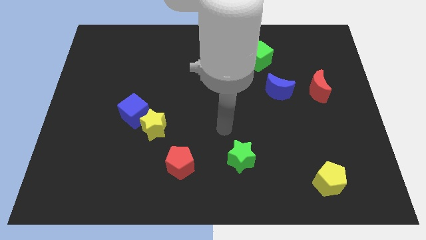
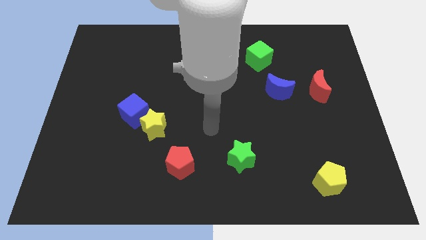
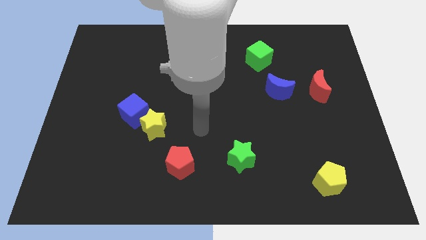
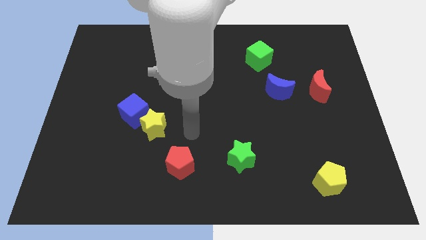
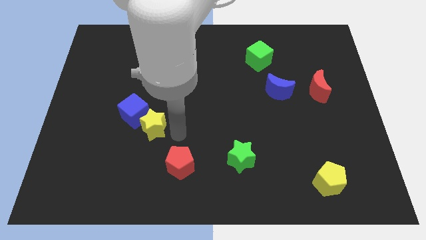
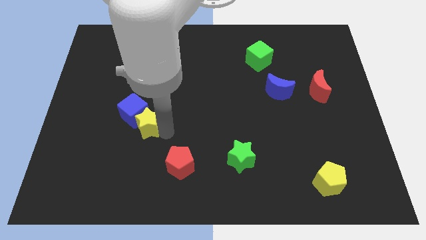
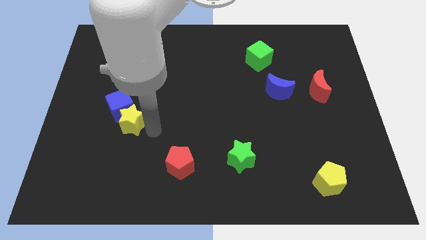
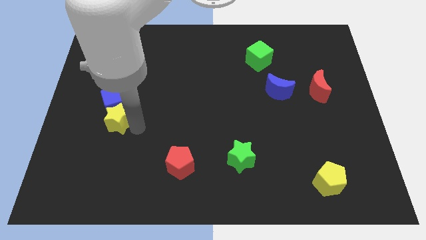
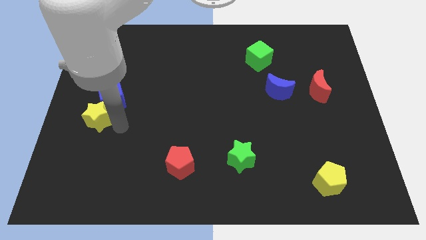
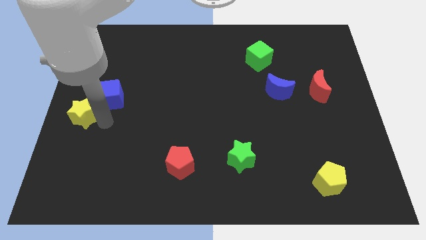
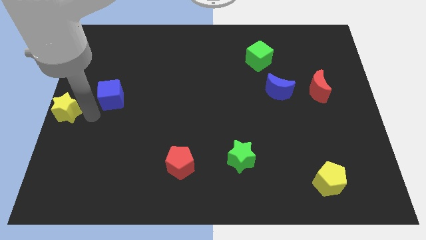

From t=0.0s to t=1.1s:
separate the blue cube from the yellow star

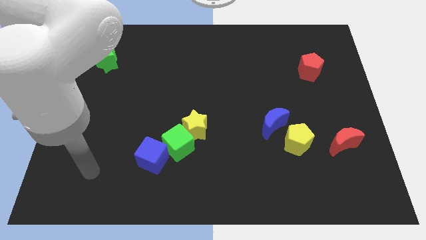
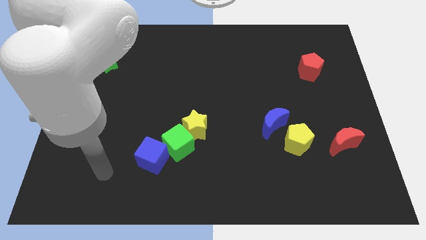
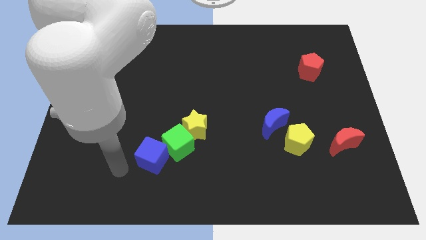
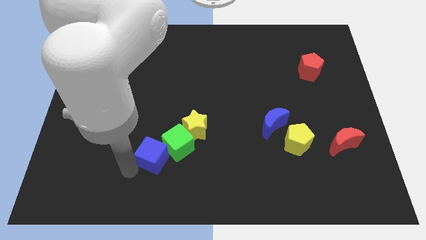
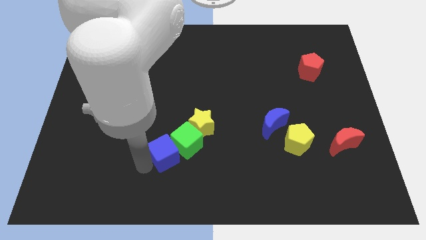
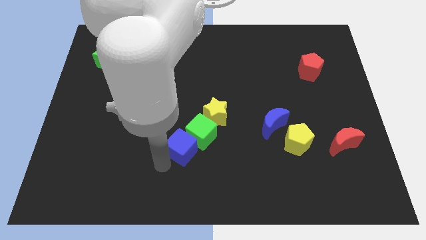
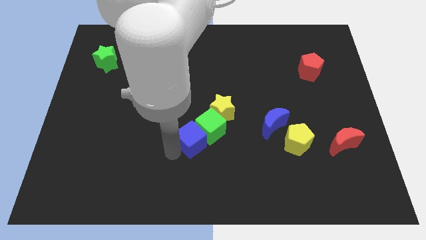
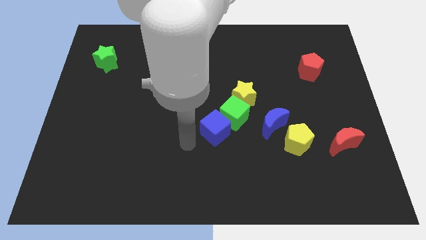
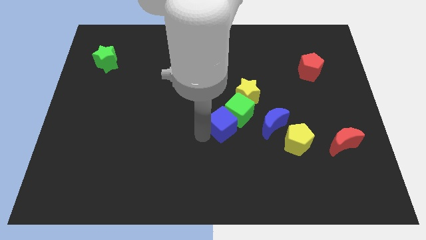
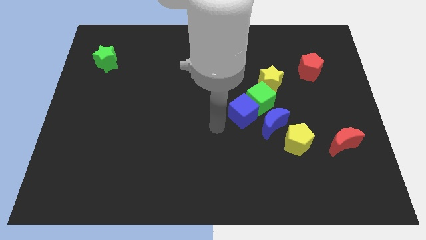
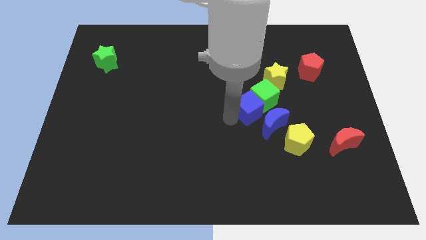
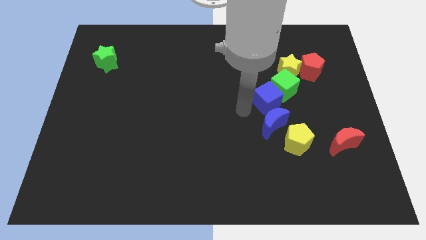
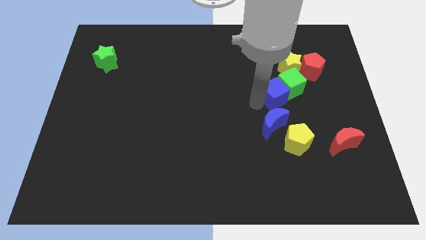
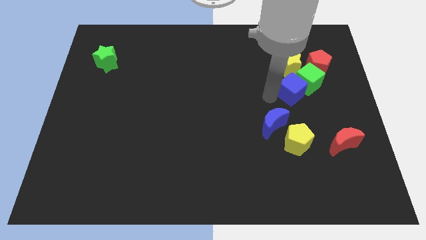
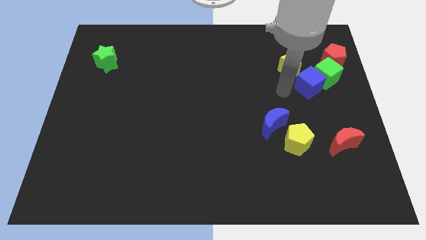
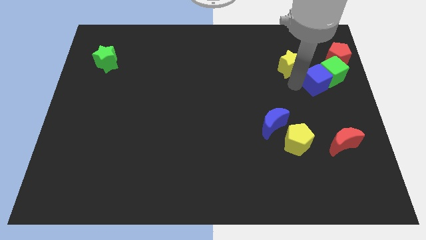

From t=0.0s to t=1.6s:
separate the yellow star from the green cube

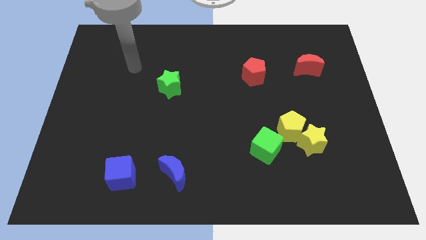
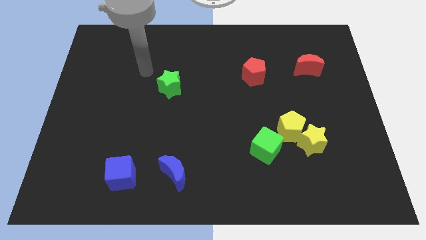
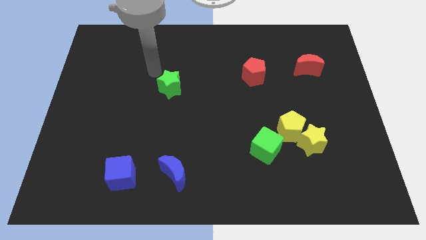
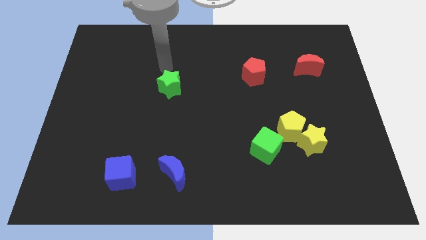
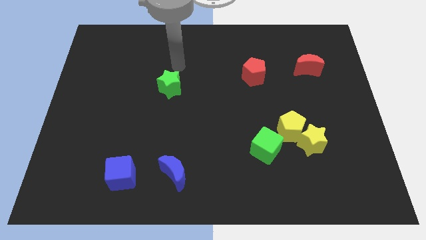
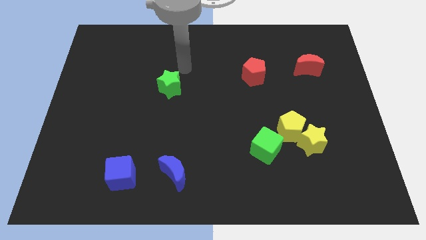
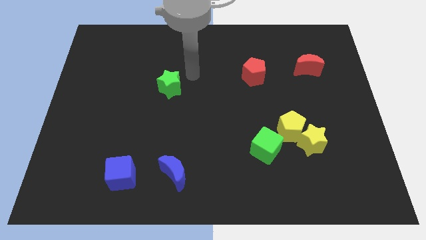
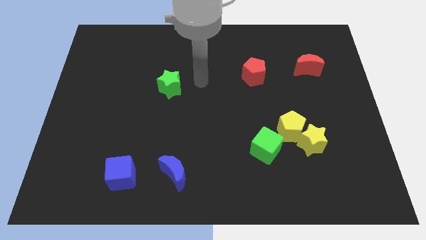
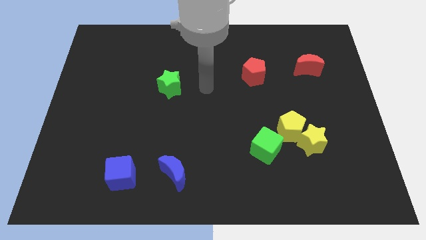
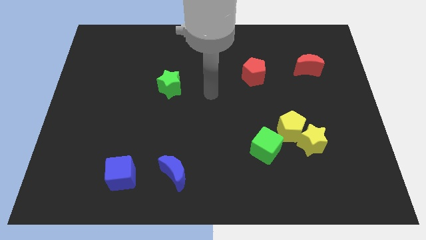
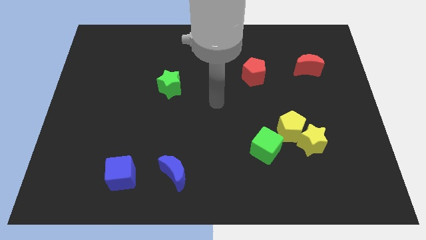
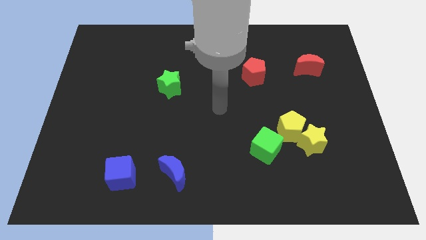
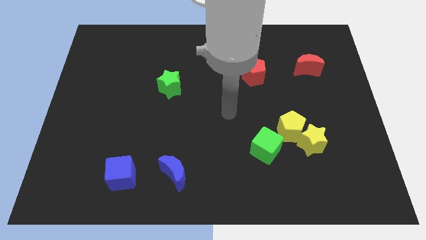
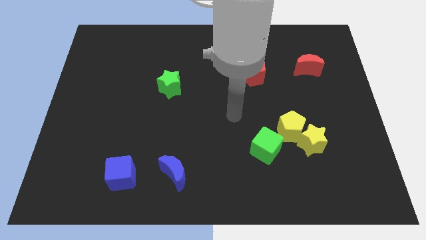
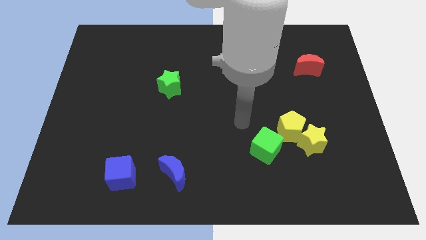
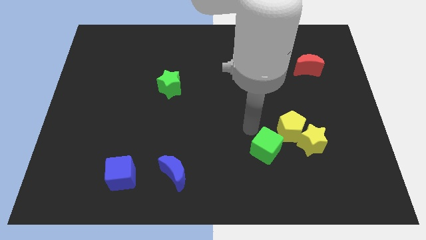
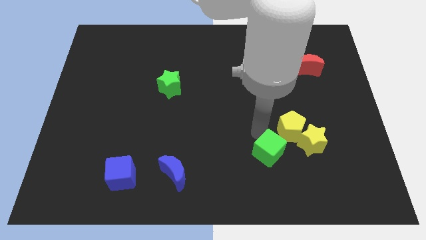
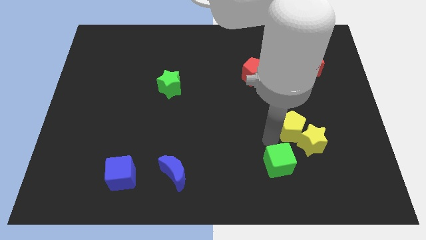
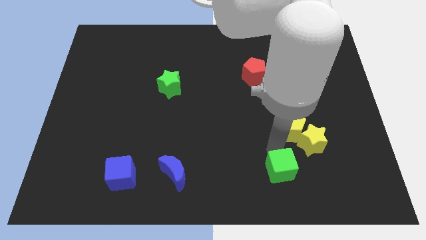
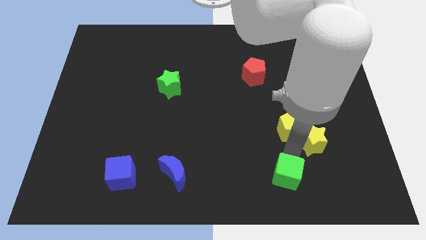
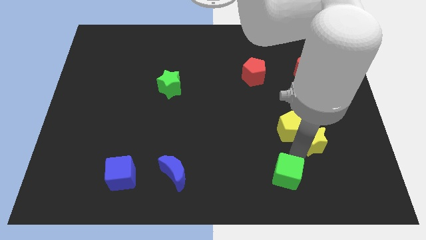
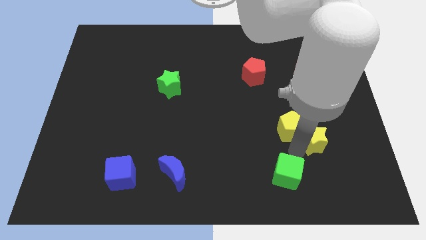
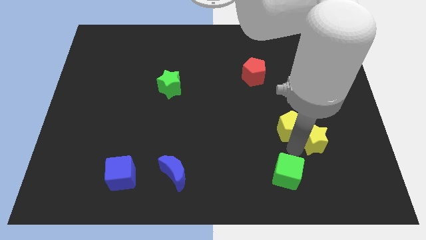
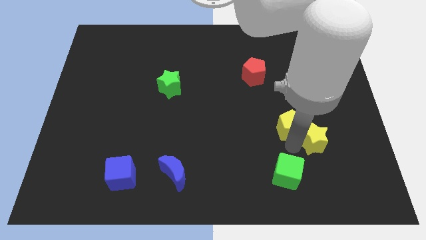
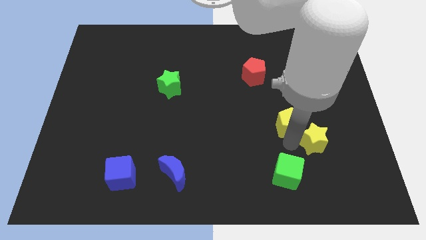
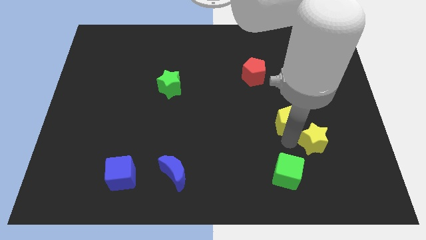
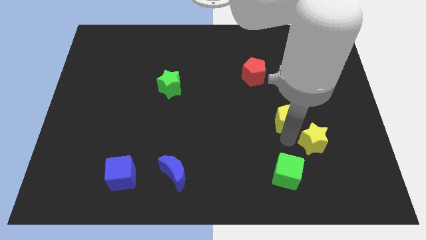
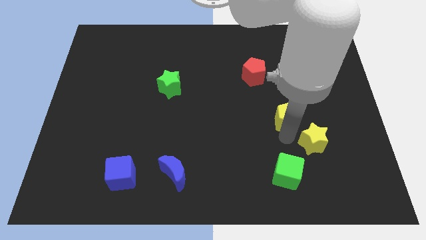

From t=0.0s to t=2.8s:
move the yellow pentagon away from the yellow star and green cube

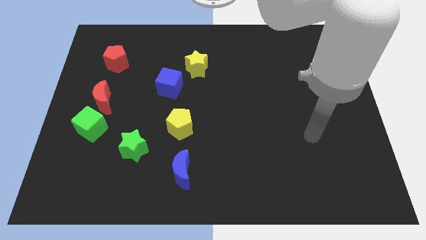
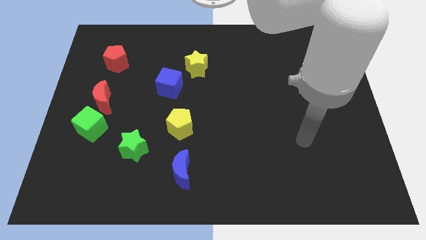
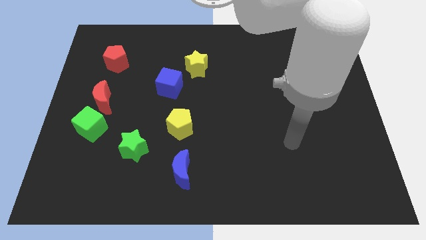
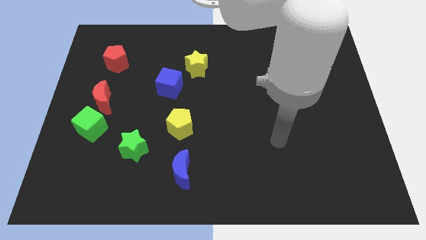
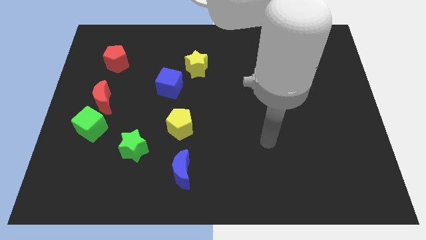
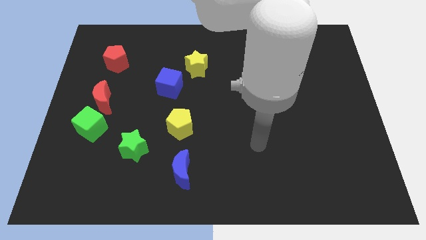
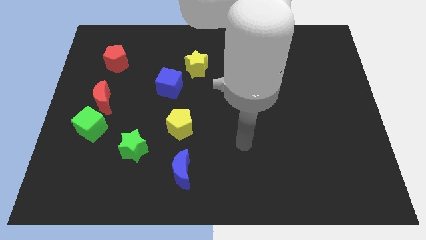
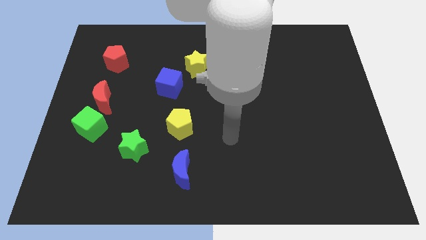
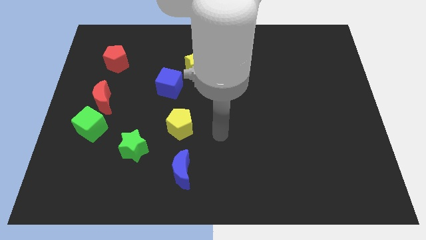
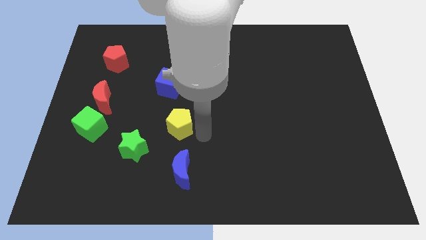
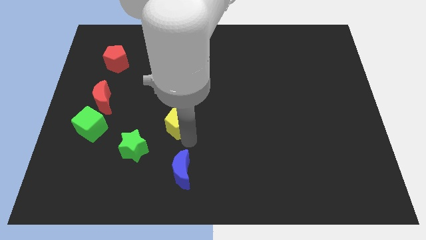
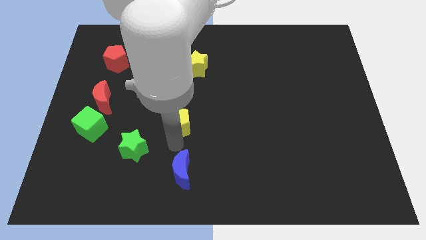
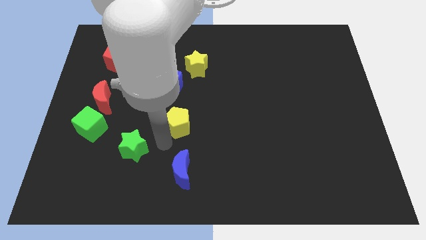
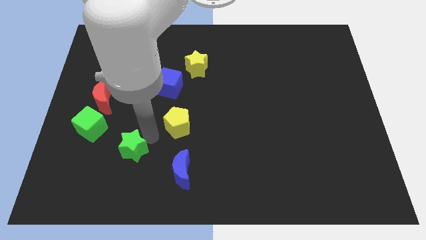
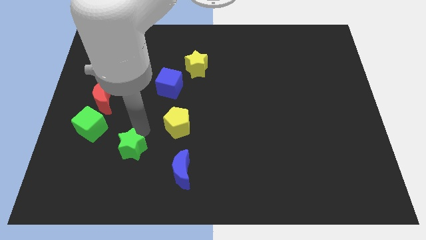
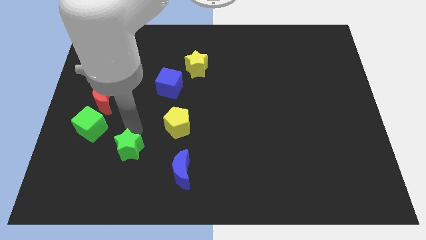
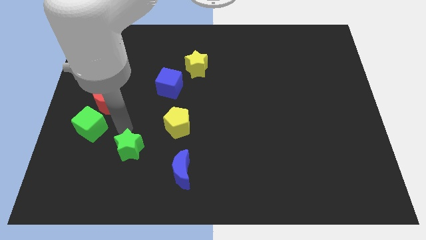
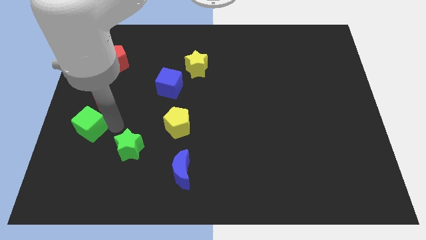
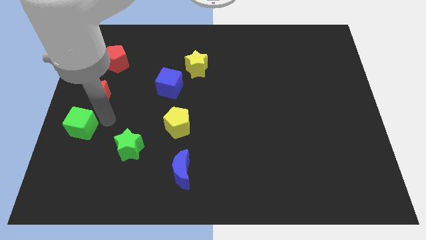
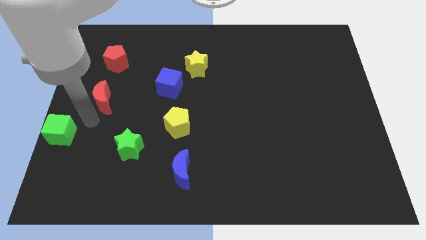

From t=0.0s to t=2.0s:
separate the red moon from the green cube

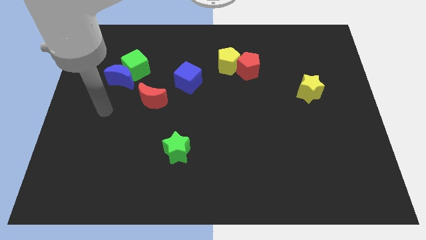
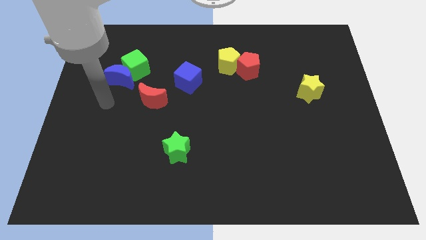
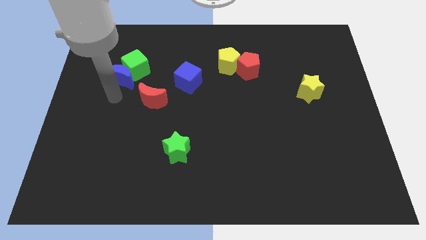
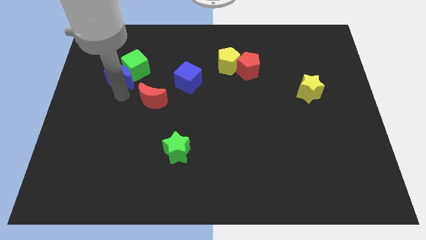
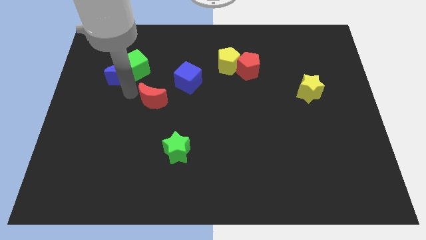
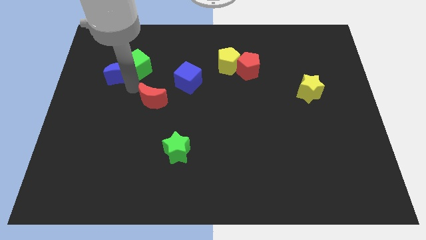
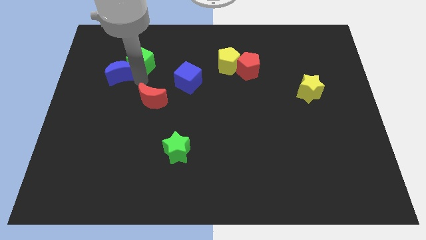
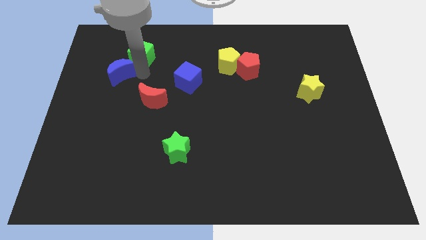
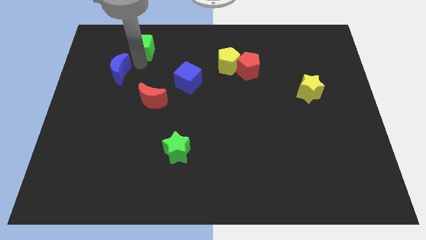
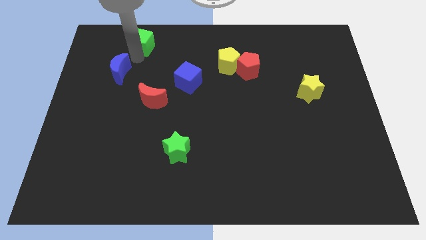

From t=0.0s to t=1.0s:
move the blue moon away from the green cube

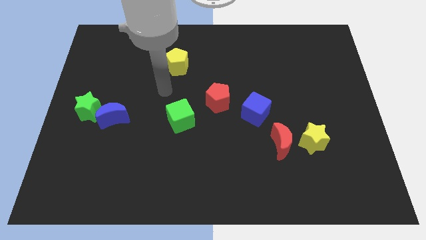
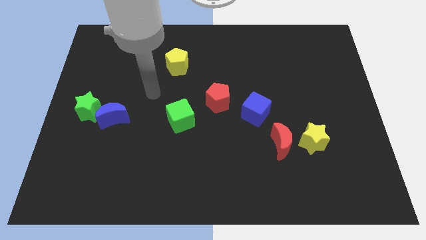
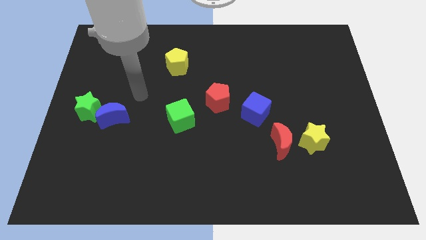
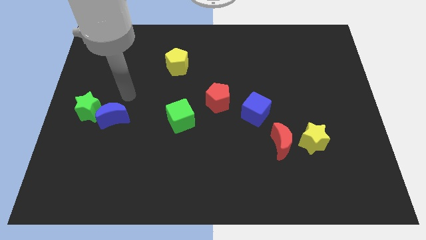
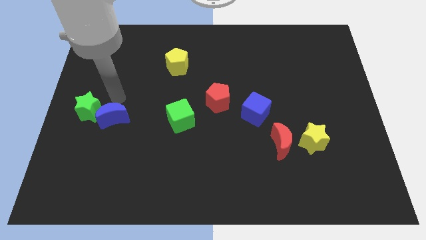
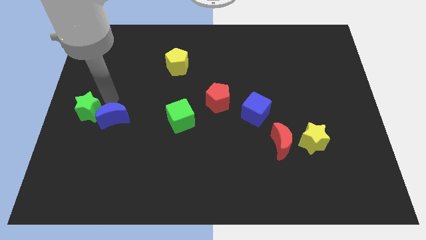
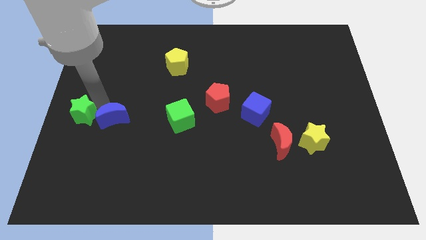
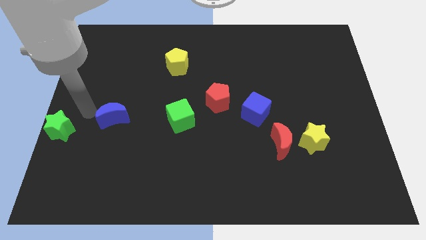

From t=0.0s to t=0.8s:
pull the blue moon apart from the green star

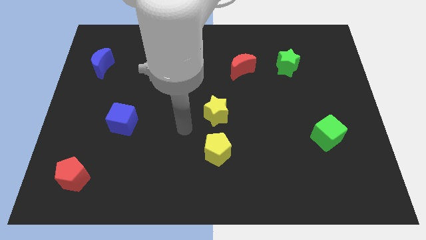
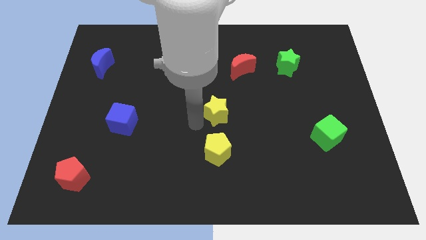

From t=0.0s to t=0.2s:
move the yellow star away from the yellow pentagon
